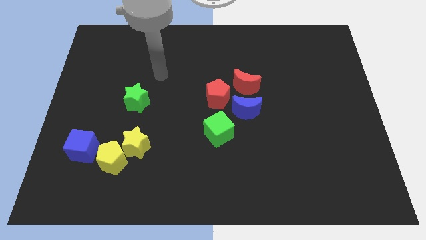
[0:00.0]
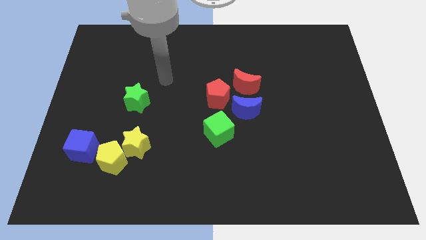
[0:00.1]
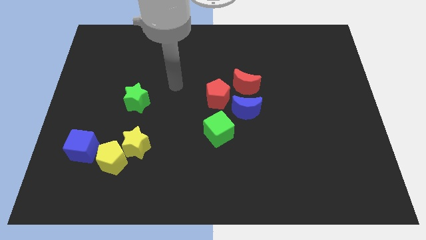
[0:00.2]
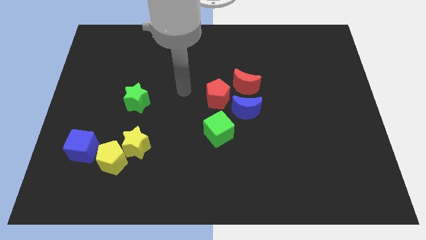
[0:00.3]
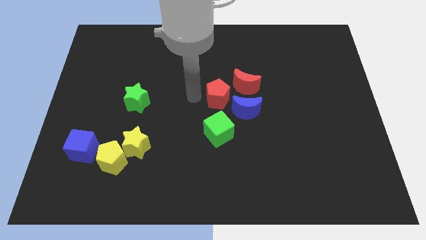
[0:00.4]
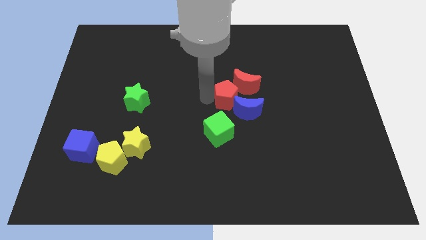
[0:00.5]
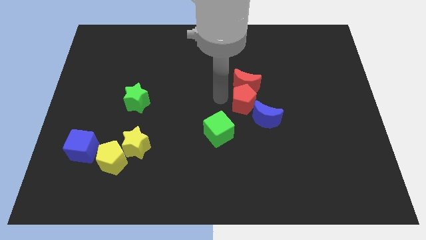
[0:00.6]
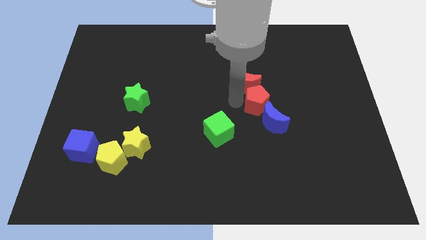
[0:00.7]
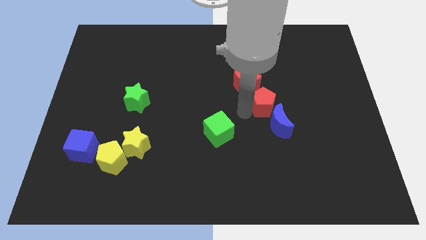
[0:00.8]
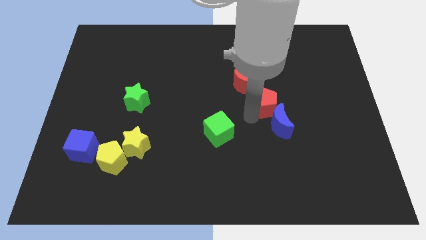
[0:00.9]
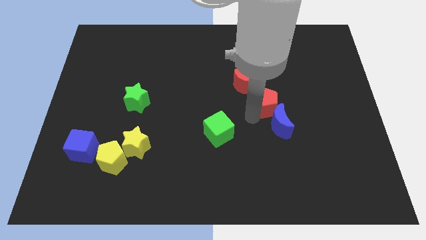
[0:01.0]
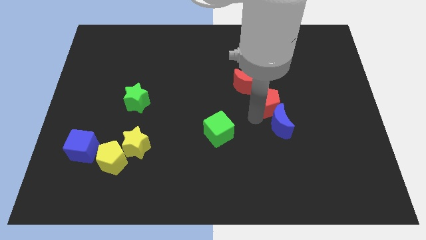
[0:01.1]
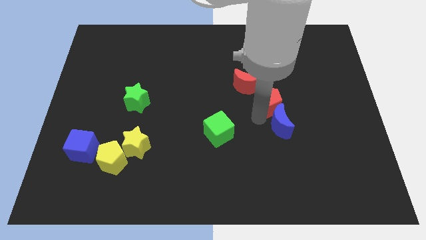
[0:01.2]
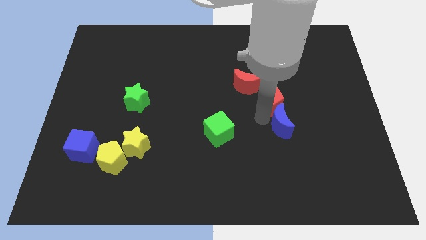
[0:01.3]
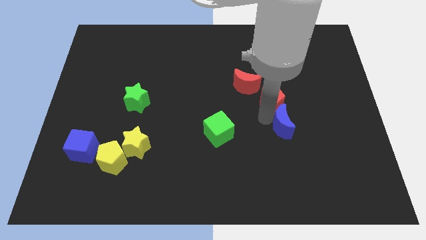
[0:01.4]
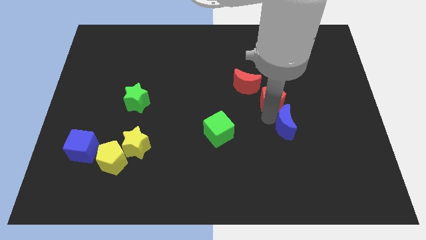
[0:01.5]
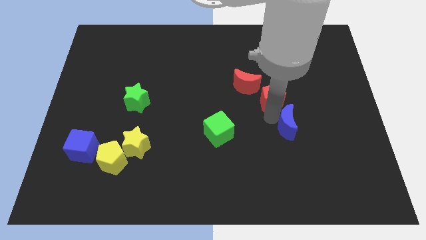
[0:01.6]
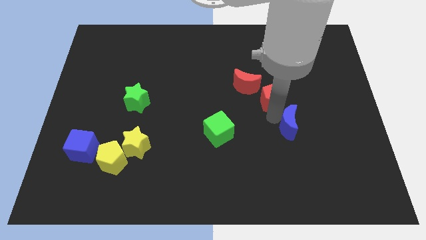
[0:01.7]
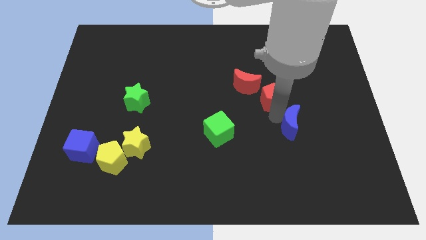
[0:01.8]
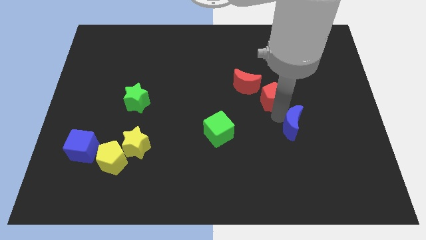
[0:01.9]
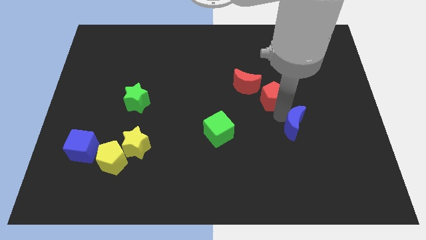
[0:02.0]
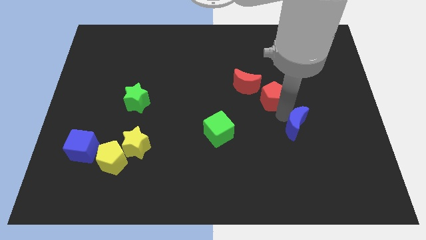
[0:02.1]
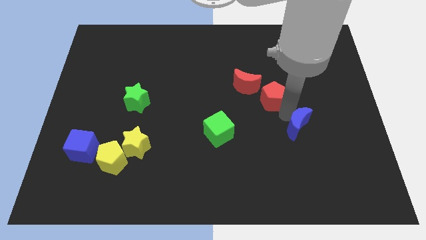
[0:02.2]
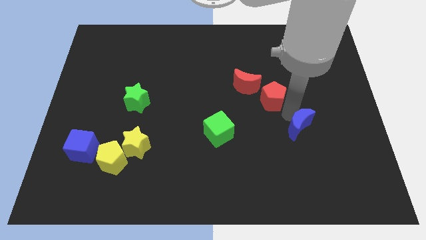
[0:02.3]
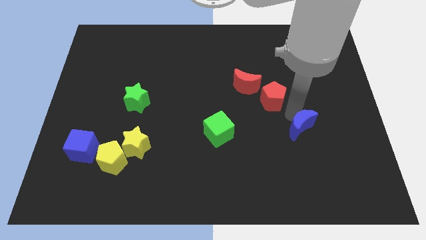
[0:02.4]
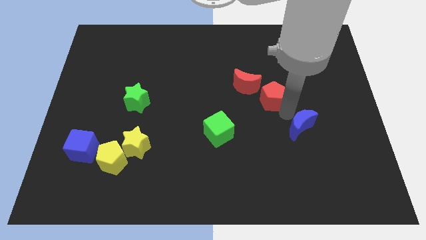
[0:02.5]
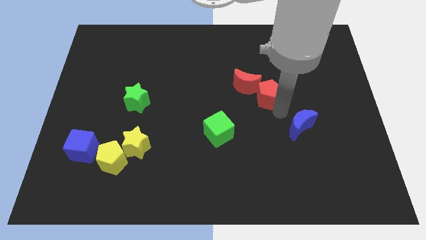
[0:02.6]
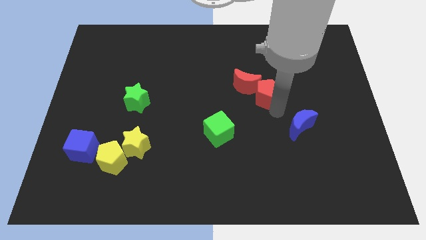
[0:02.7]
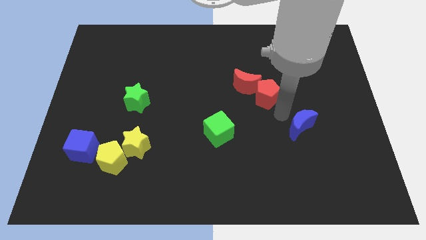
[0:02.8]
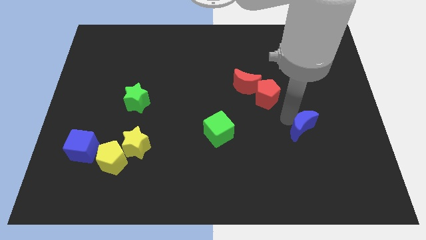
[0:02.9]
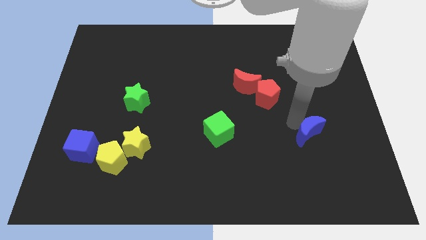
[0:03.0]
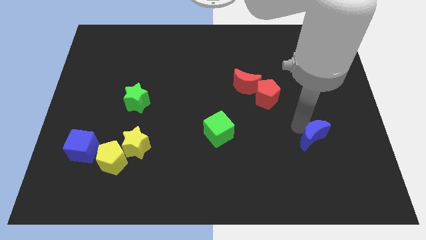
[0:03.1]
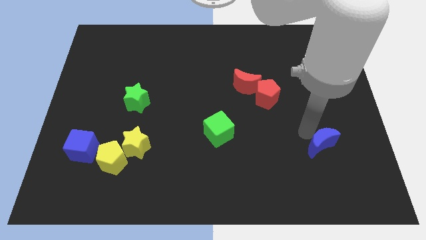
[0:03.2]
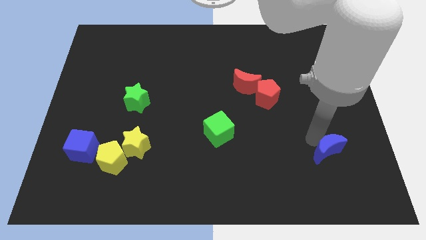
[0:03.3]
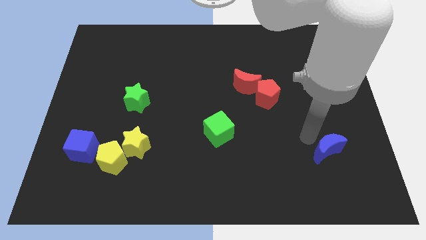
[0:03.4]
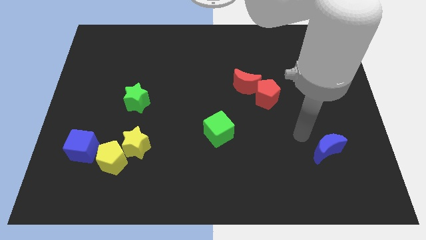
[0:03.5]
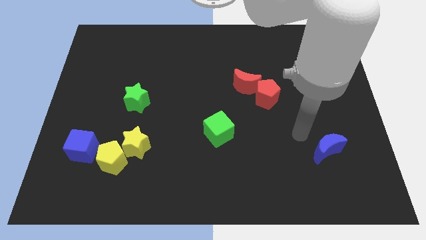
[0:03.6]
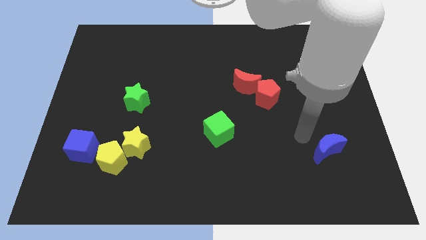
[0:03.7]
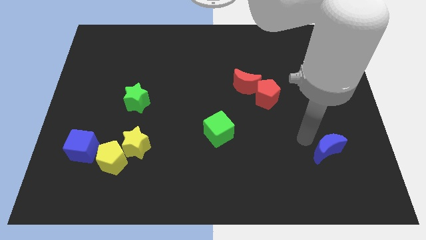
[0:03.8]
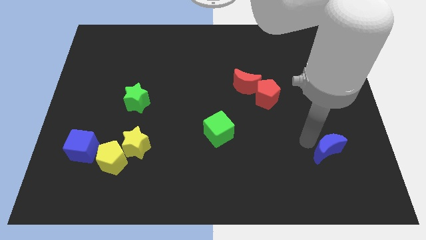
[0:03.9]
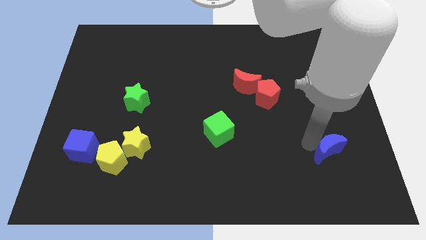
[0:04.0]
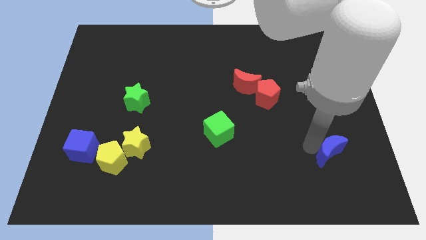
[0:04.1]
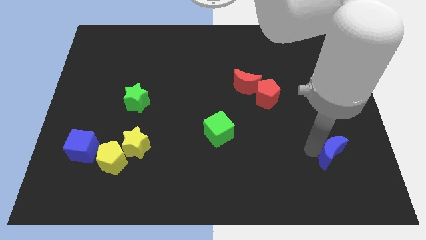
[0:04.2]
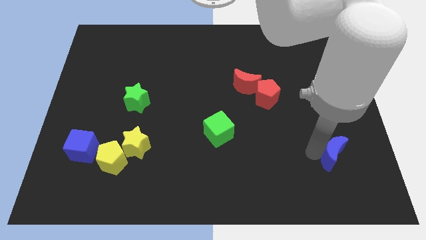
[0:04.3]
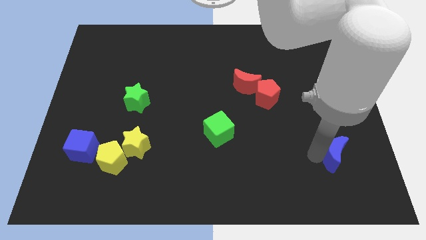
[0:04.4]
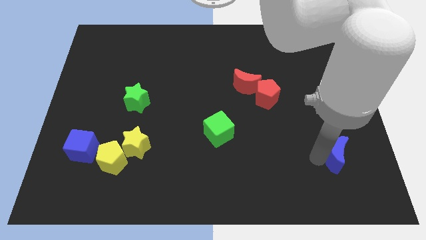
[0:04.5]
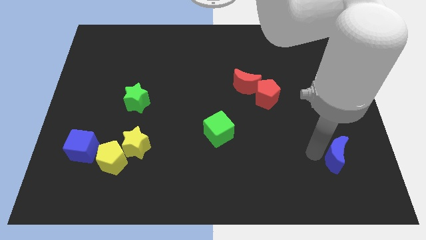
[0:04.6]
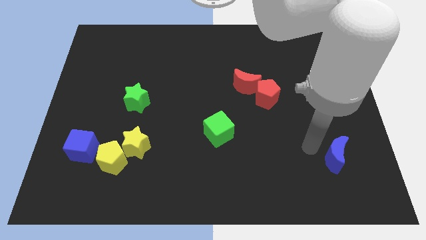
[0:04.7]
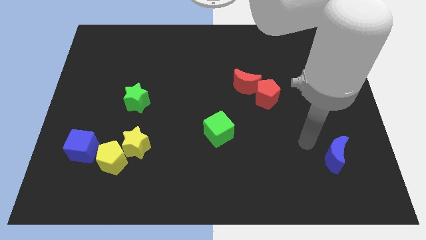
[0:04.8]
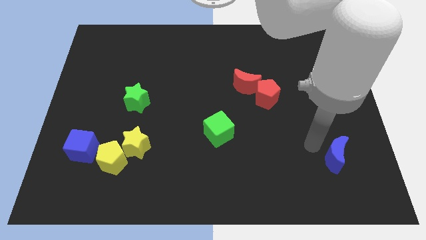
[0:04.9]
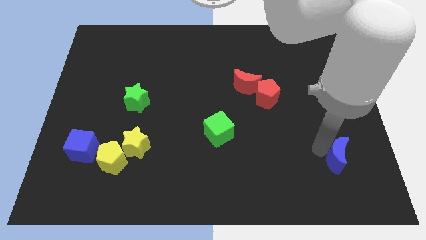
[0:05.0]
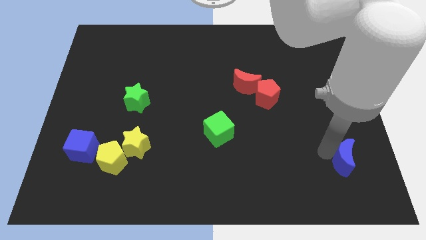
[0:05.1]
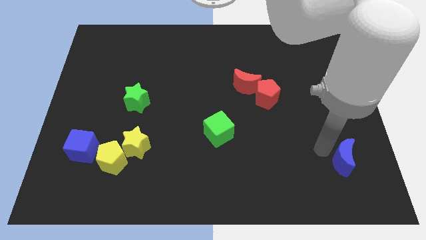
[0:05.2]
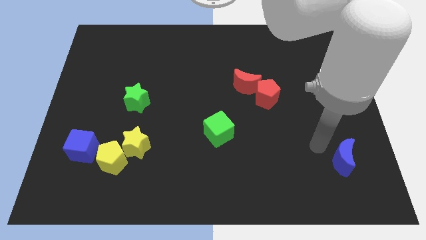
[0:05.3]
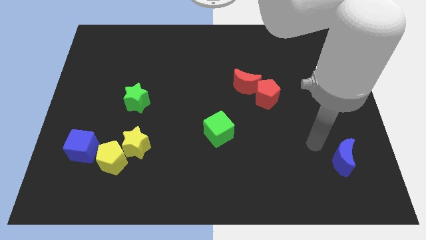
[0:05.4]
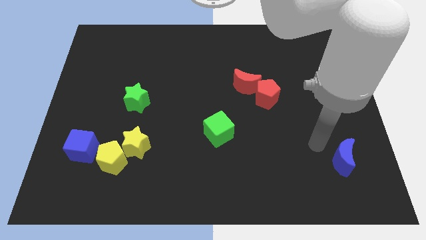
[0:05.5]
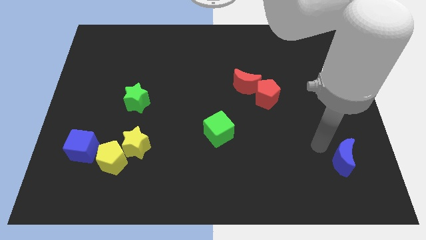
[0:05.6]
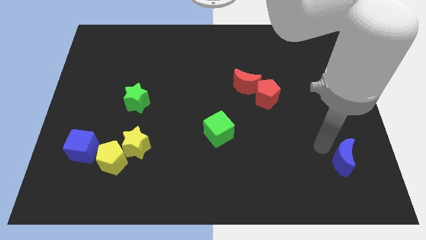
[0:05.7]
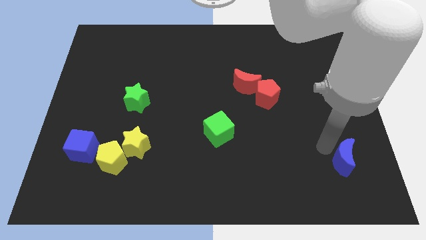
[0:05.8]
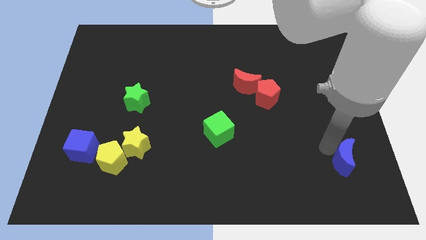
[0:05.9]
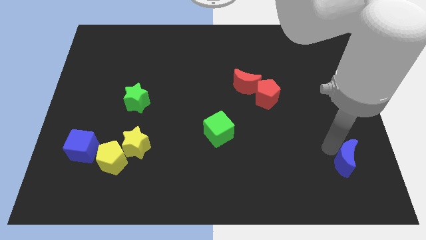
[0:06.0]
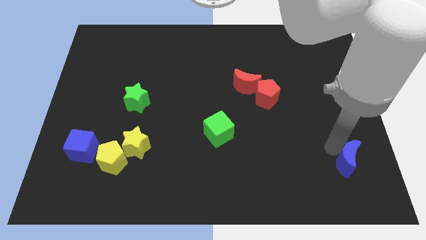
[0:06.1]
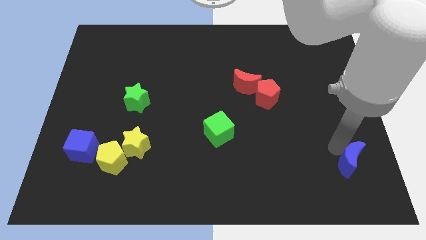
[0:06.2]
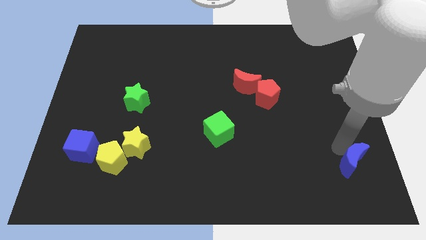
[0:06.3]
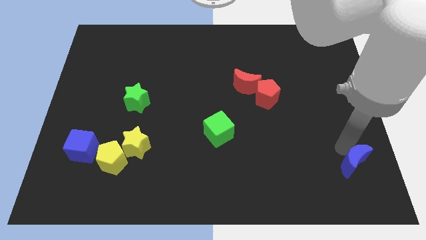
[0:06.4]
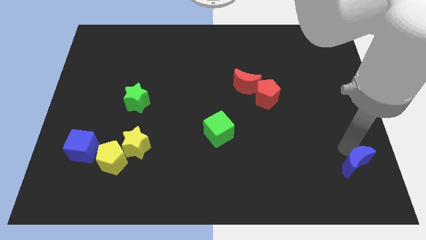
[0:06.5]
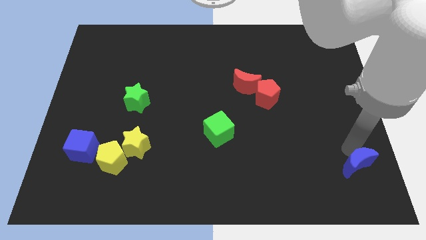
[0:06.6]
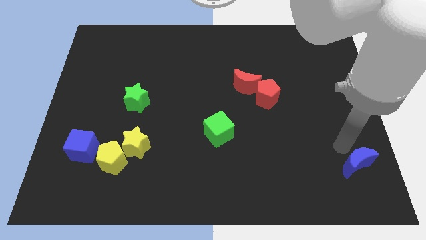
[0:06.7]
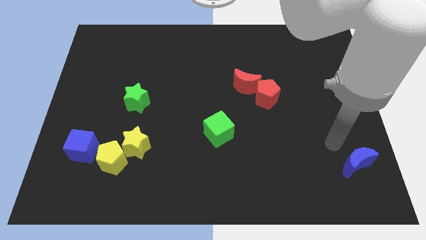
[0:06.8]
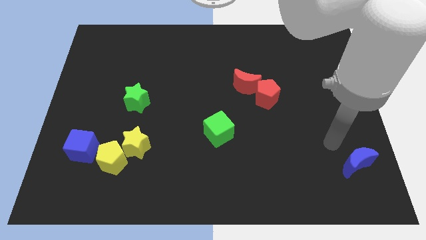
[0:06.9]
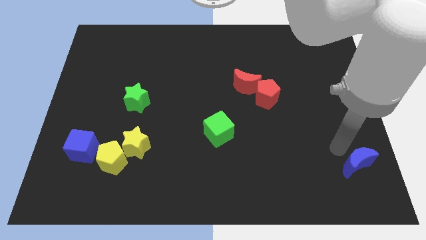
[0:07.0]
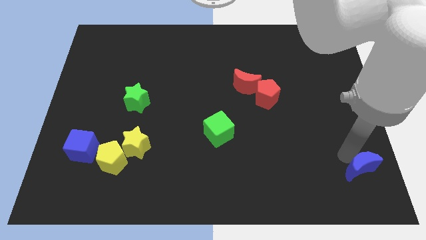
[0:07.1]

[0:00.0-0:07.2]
push the blue moon to the bottom right corner
